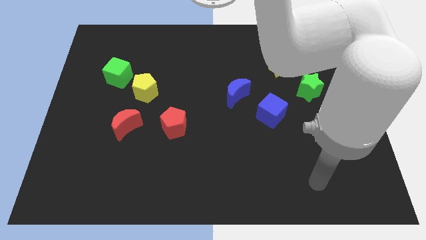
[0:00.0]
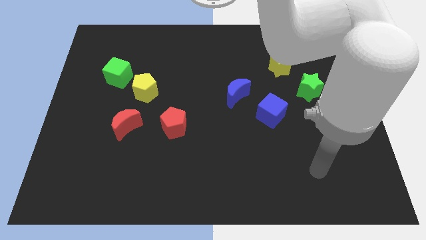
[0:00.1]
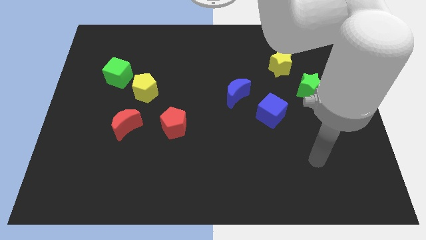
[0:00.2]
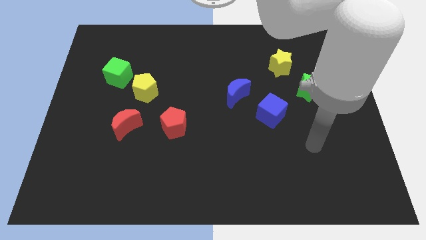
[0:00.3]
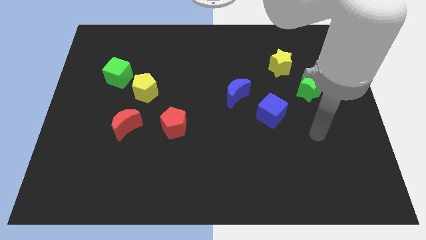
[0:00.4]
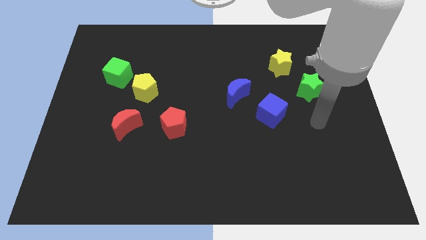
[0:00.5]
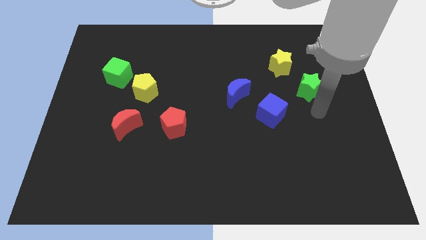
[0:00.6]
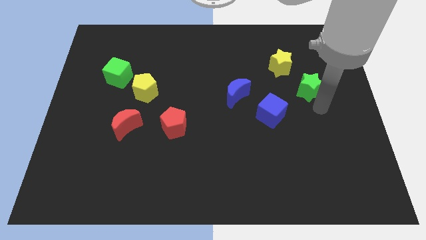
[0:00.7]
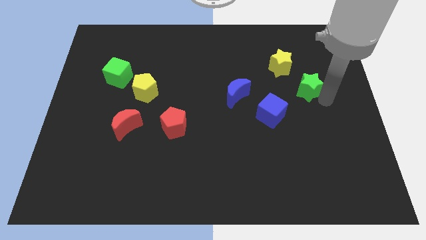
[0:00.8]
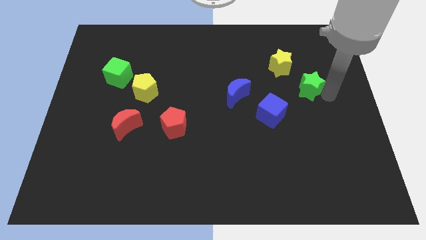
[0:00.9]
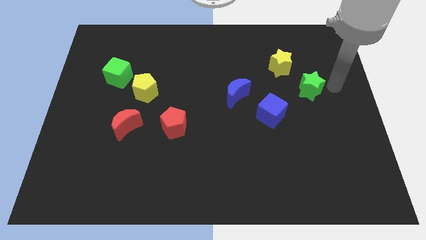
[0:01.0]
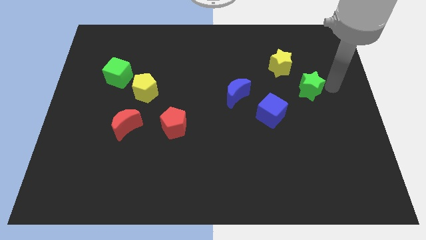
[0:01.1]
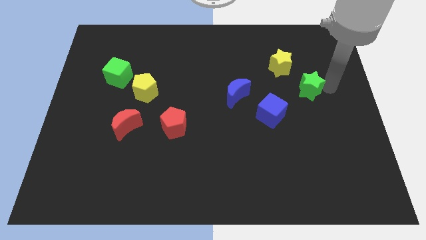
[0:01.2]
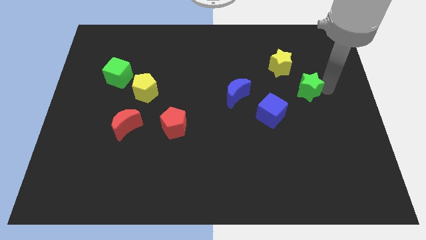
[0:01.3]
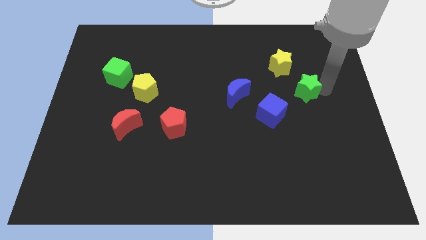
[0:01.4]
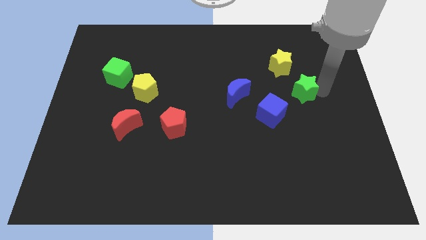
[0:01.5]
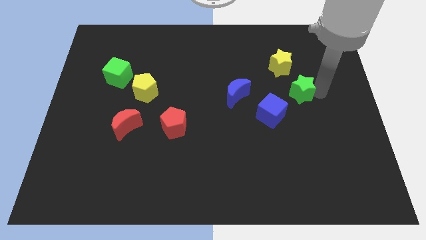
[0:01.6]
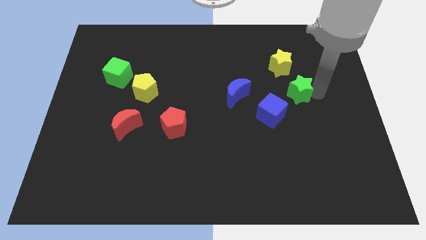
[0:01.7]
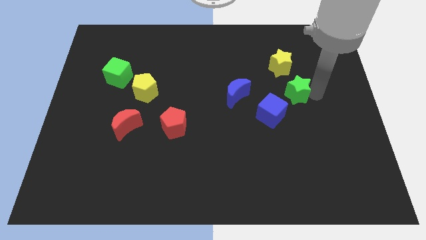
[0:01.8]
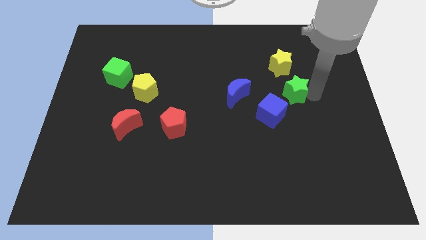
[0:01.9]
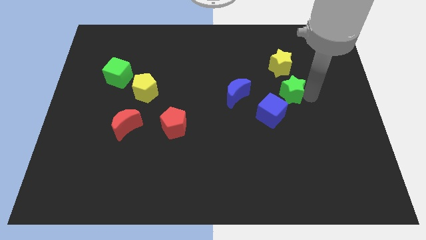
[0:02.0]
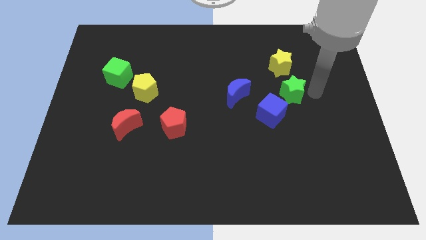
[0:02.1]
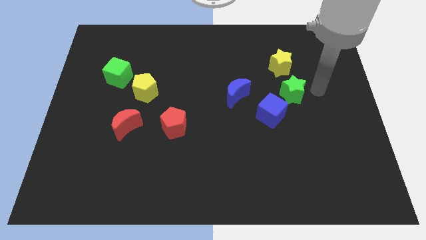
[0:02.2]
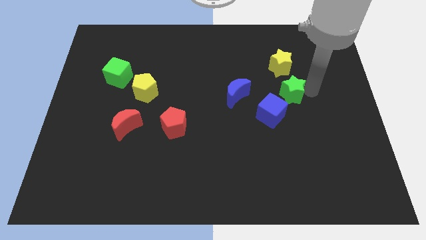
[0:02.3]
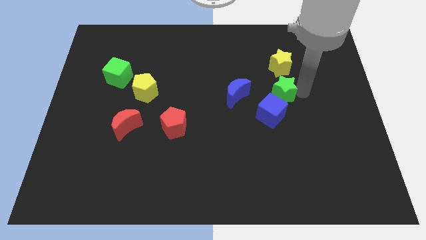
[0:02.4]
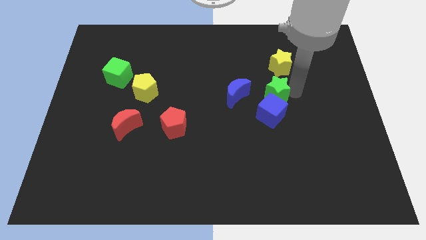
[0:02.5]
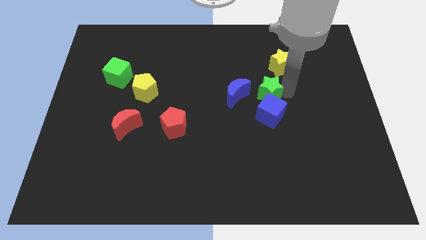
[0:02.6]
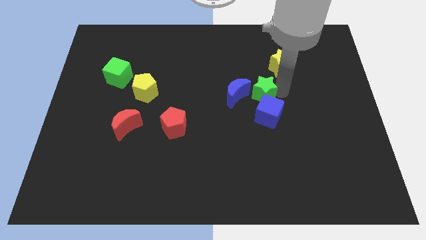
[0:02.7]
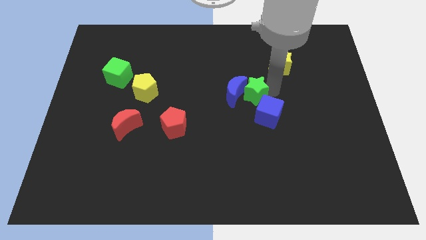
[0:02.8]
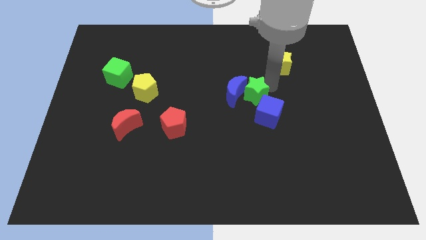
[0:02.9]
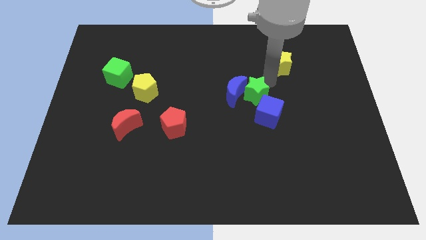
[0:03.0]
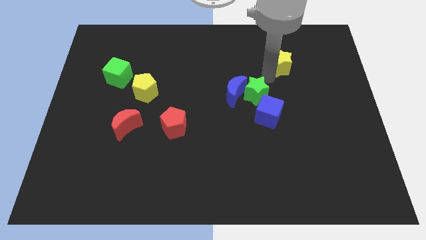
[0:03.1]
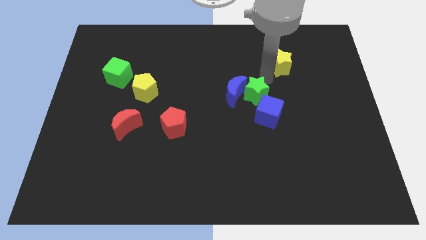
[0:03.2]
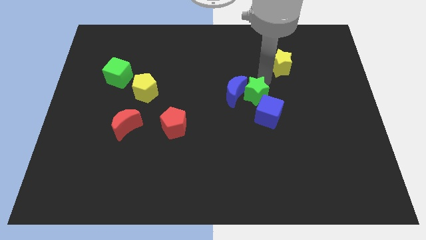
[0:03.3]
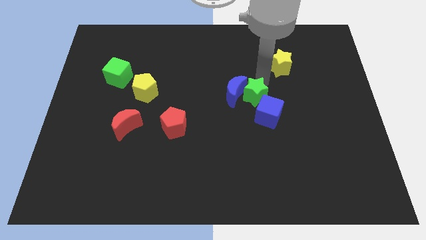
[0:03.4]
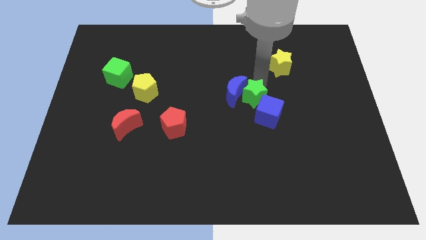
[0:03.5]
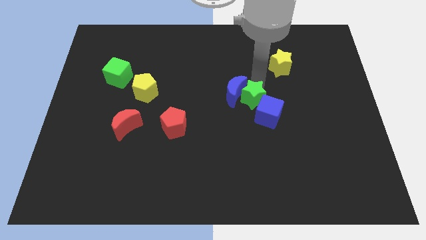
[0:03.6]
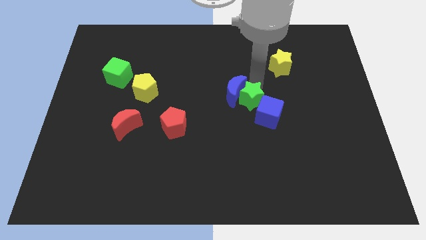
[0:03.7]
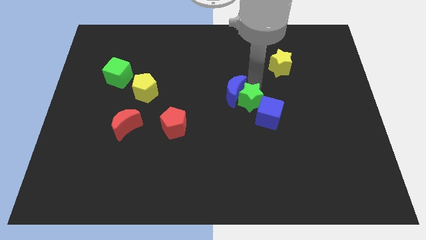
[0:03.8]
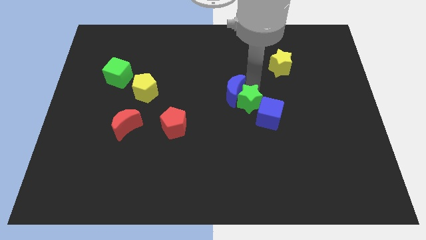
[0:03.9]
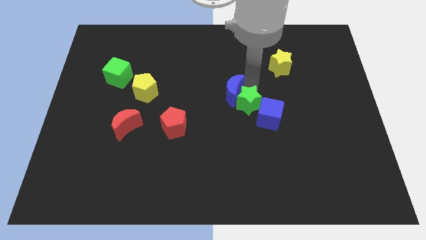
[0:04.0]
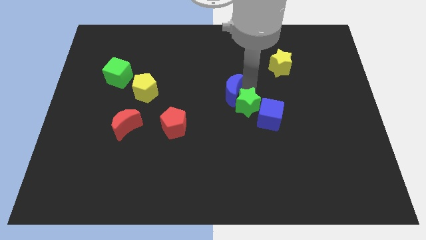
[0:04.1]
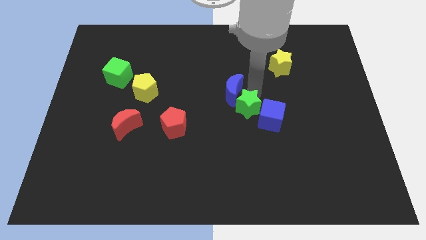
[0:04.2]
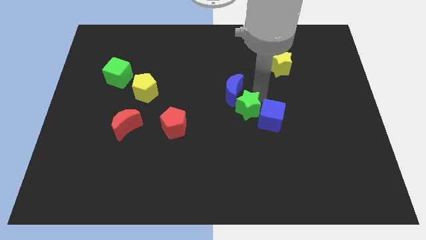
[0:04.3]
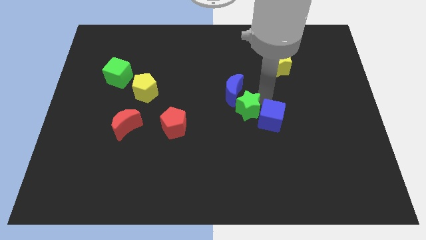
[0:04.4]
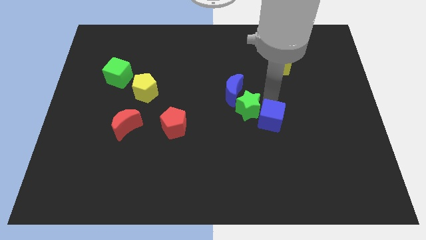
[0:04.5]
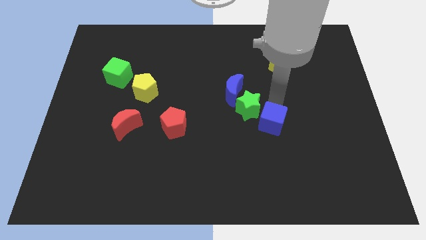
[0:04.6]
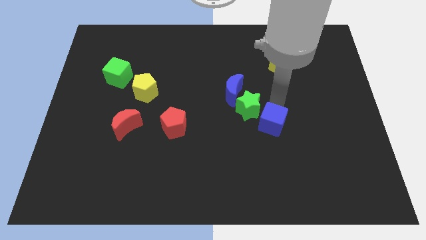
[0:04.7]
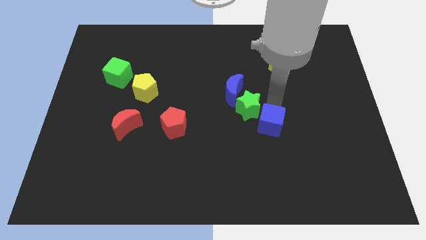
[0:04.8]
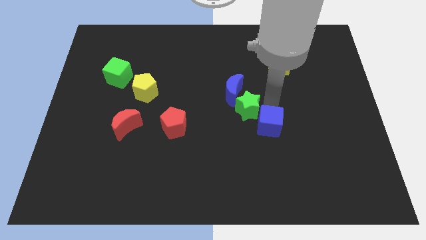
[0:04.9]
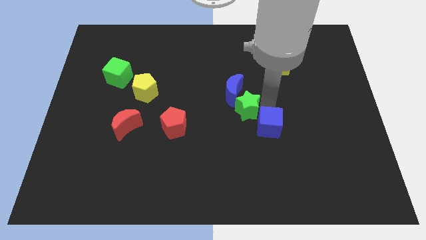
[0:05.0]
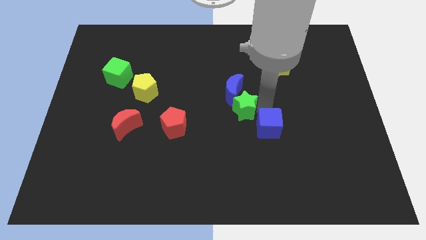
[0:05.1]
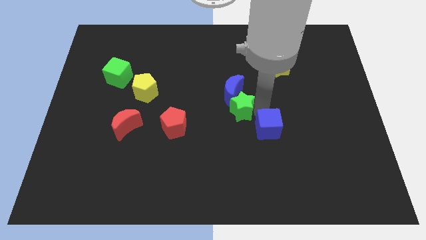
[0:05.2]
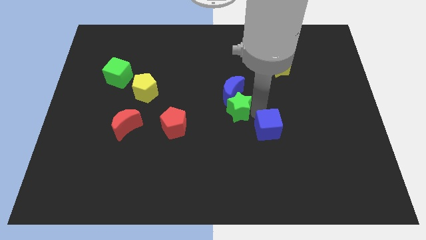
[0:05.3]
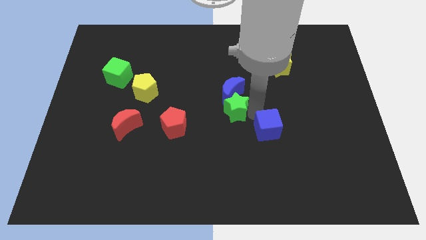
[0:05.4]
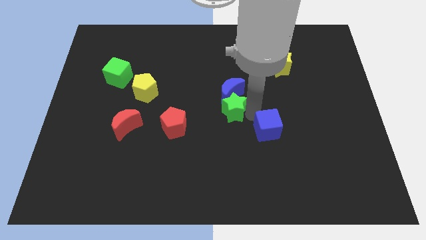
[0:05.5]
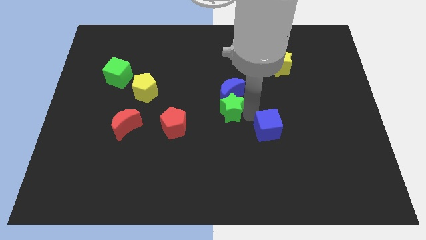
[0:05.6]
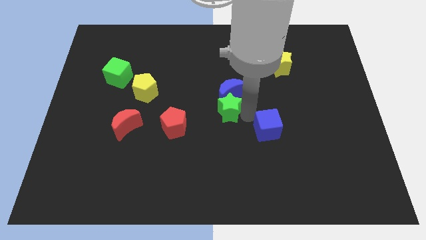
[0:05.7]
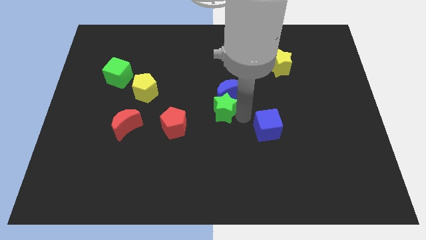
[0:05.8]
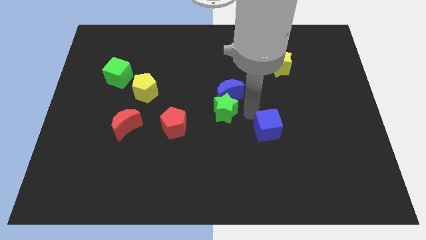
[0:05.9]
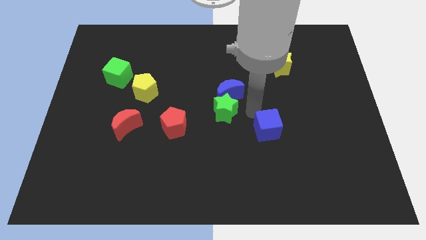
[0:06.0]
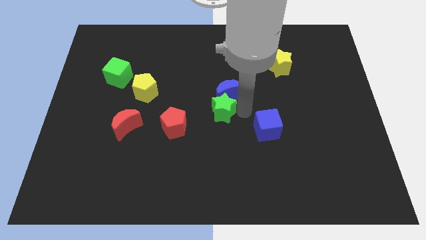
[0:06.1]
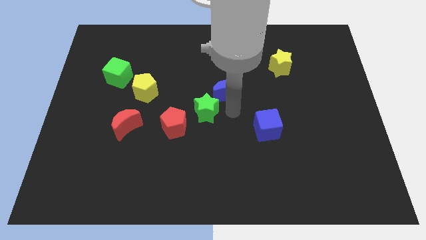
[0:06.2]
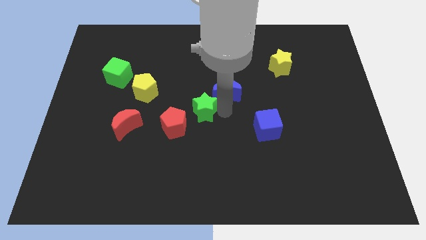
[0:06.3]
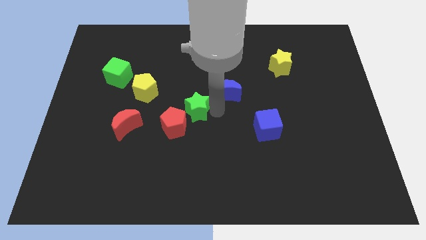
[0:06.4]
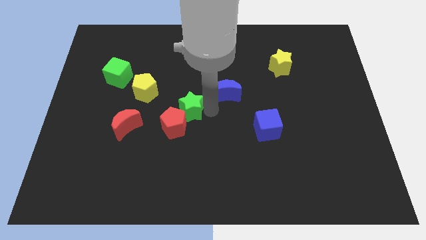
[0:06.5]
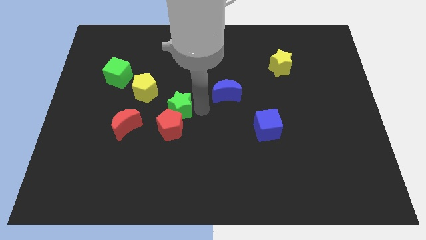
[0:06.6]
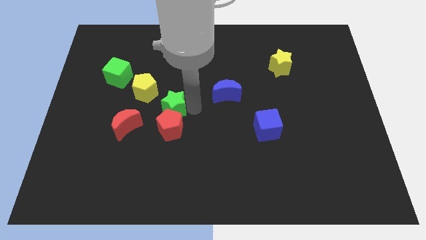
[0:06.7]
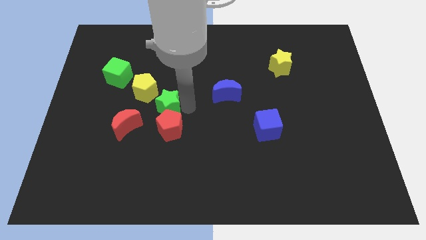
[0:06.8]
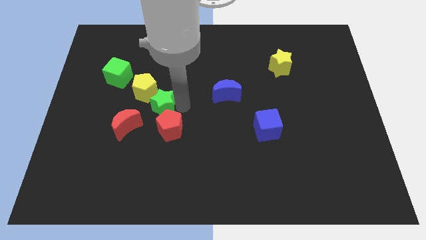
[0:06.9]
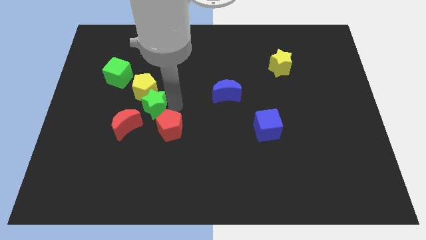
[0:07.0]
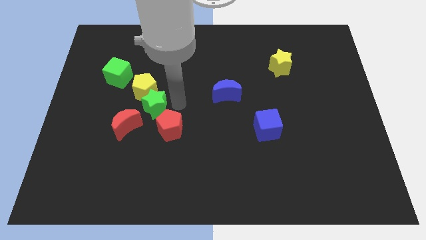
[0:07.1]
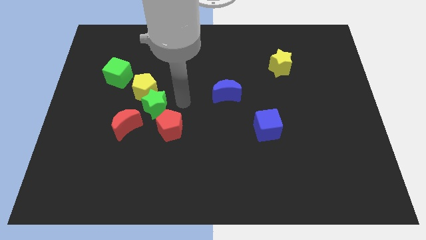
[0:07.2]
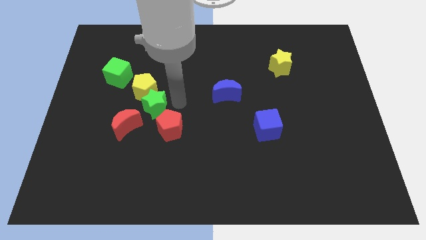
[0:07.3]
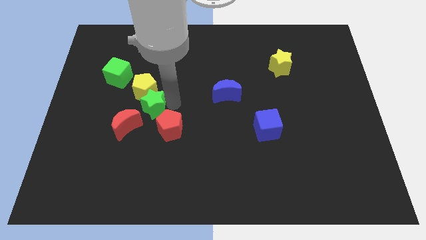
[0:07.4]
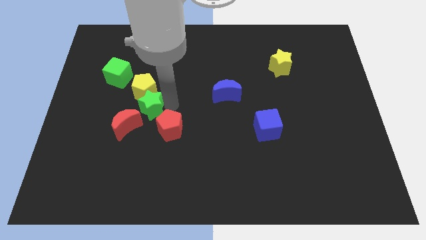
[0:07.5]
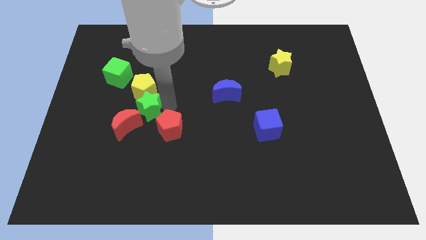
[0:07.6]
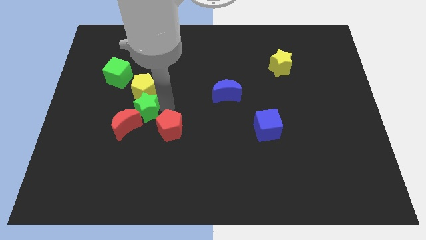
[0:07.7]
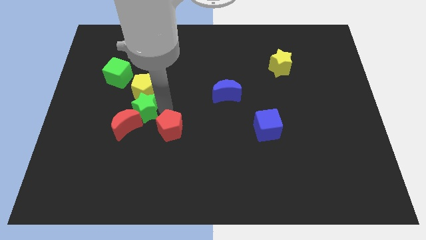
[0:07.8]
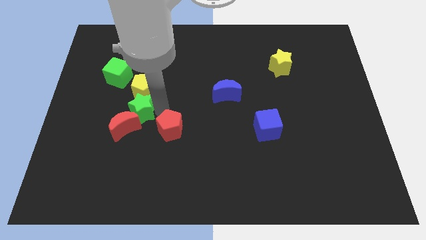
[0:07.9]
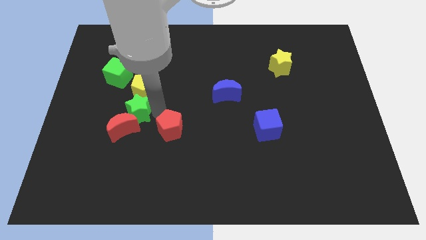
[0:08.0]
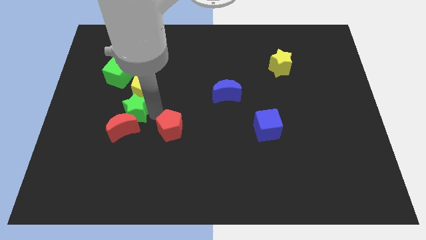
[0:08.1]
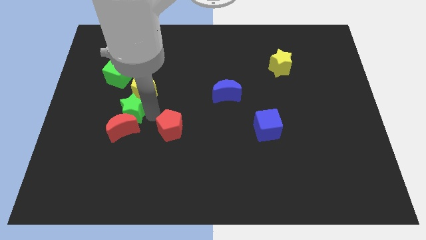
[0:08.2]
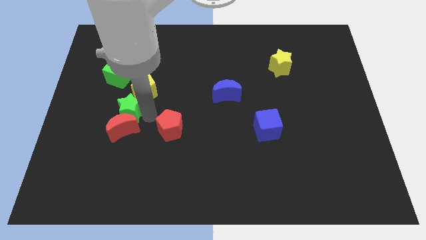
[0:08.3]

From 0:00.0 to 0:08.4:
push the green star below the green cube
